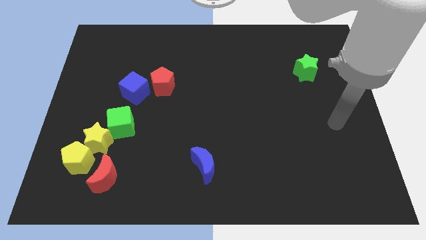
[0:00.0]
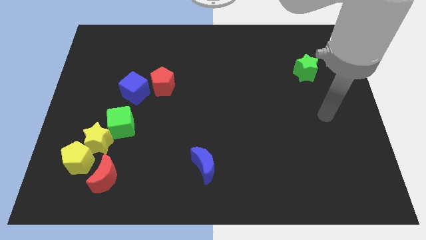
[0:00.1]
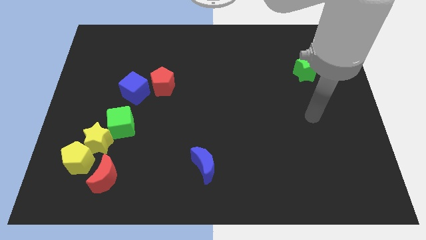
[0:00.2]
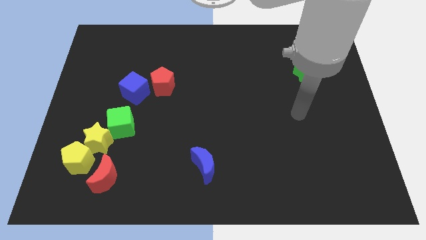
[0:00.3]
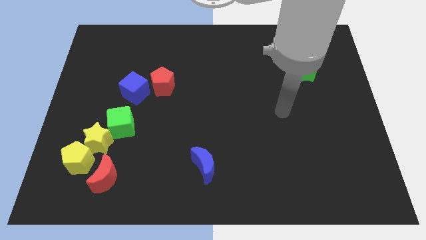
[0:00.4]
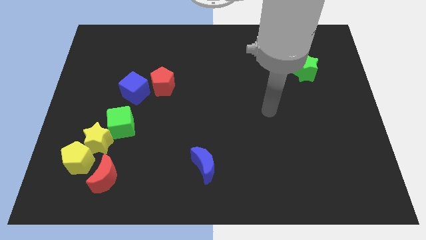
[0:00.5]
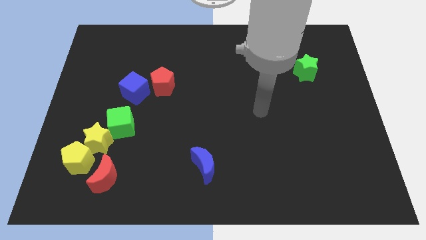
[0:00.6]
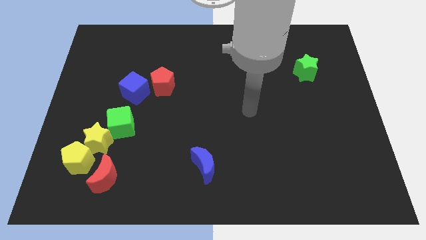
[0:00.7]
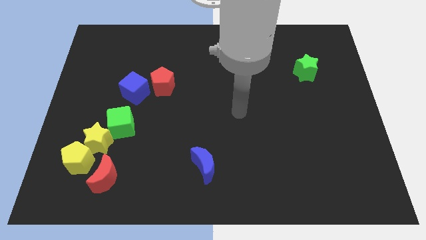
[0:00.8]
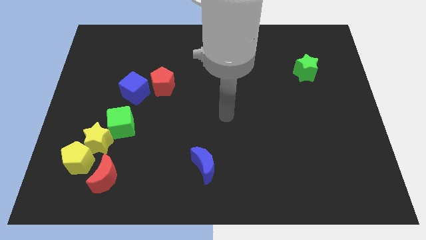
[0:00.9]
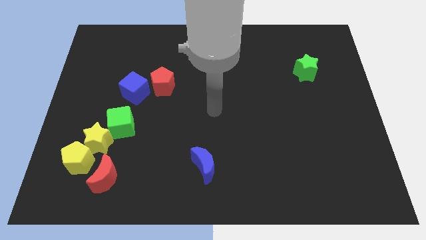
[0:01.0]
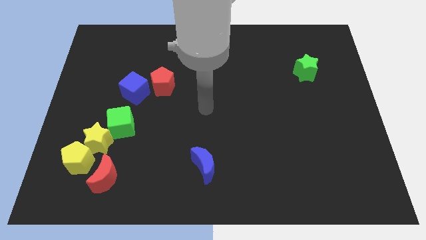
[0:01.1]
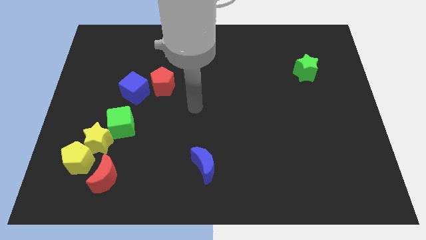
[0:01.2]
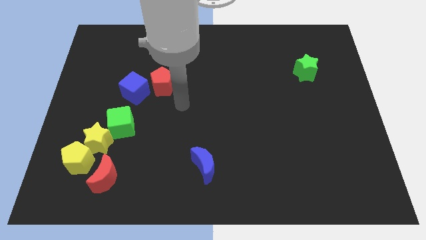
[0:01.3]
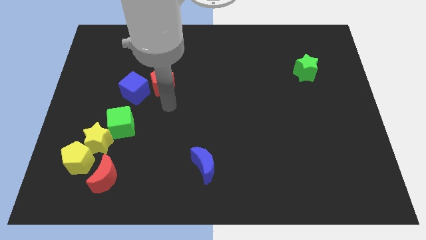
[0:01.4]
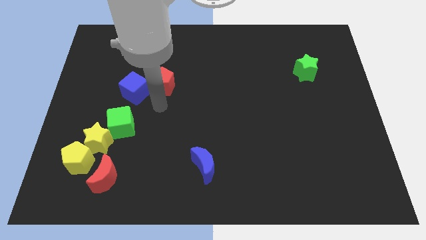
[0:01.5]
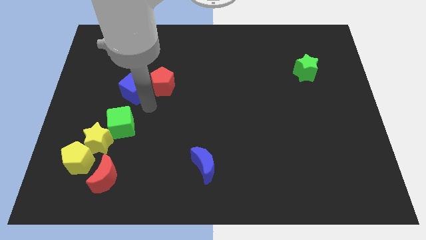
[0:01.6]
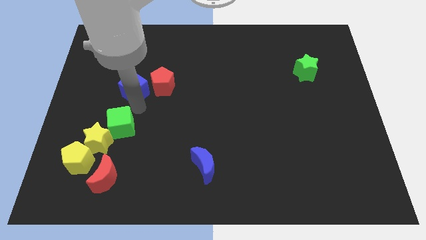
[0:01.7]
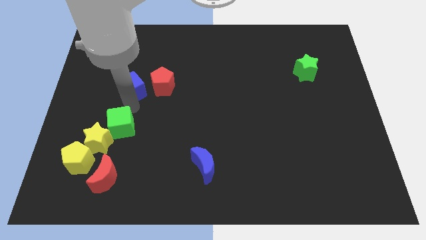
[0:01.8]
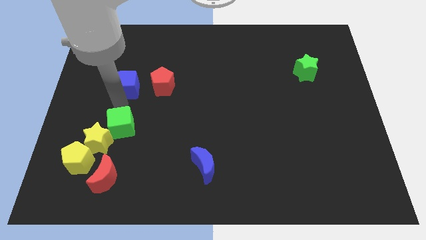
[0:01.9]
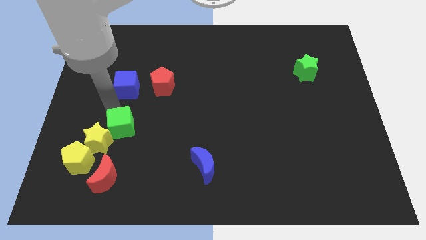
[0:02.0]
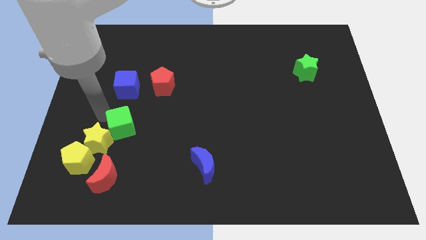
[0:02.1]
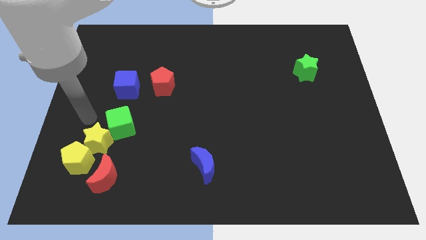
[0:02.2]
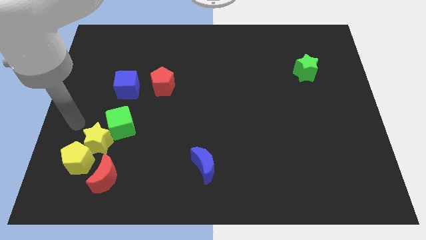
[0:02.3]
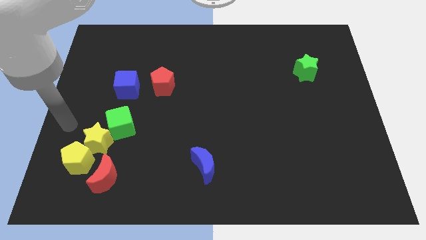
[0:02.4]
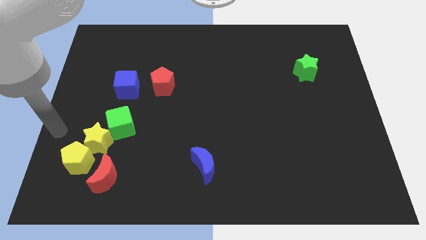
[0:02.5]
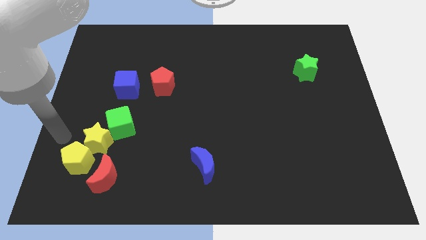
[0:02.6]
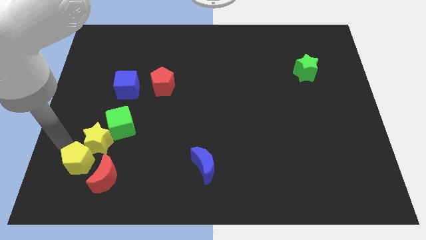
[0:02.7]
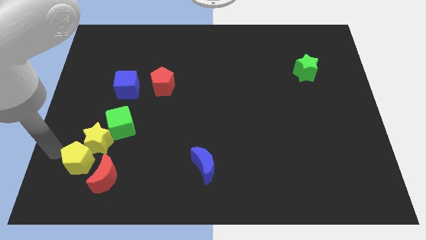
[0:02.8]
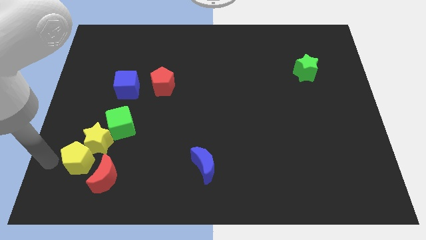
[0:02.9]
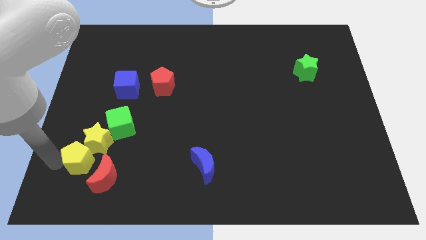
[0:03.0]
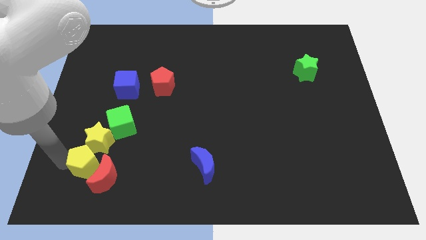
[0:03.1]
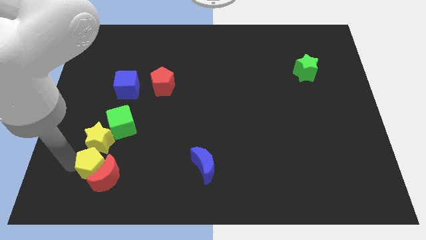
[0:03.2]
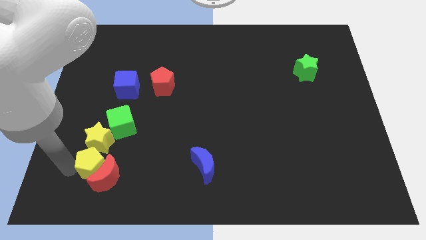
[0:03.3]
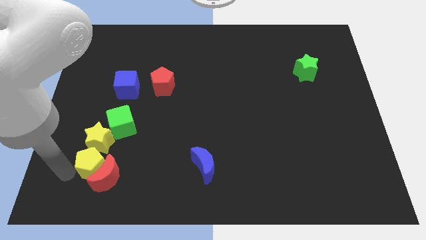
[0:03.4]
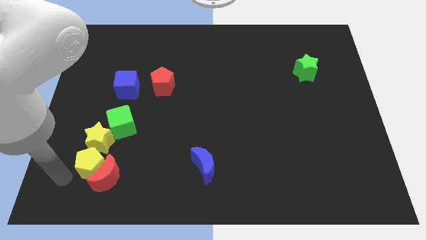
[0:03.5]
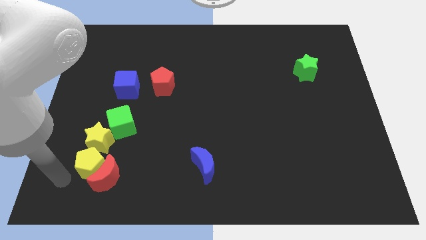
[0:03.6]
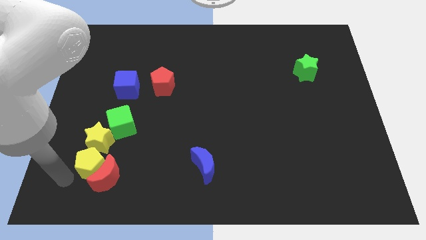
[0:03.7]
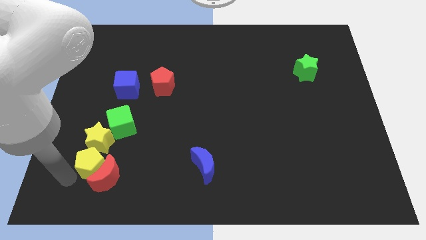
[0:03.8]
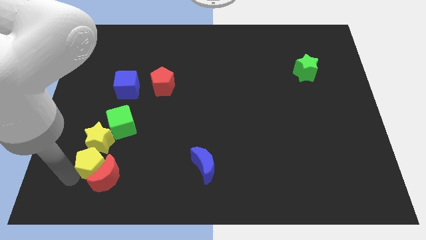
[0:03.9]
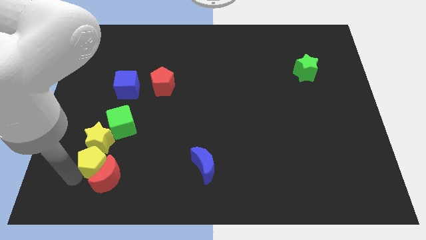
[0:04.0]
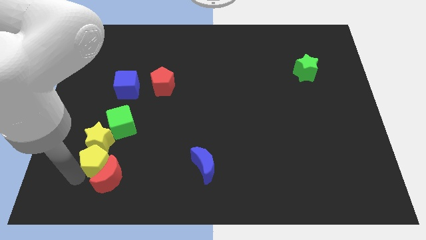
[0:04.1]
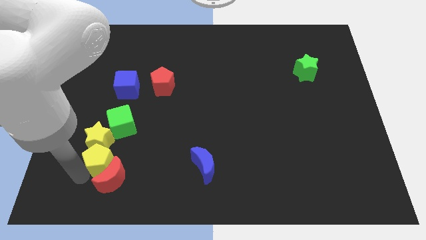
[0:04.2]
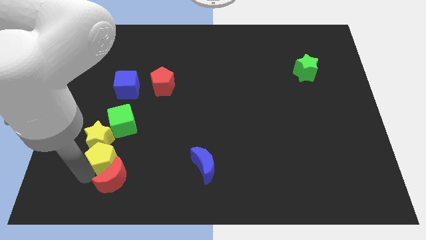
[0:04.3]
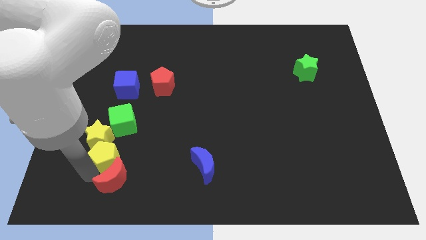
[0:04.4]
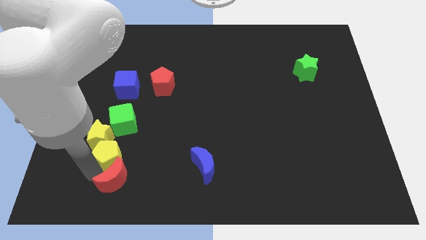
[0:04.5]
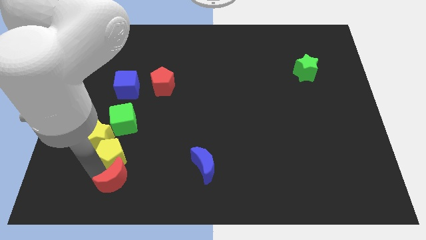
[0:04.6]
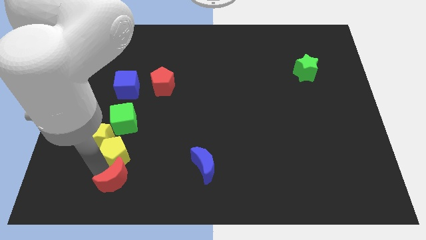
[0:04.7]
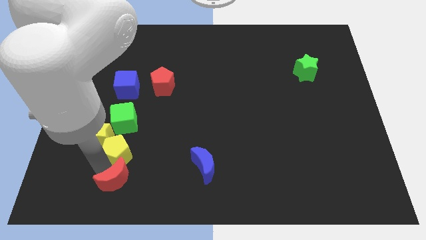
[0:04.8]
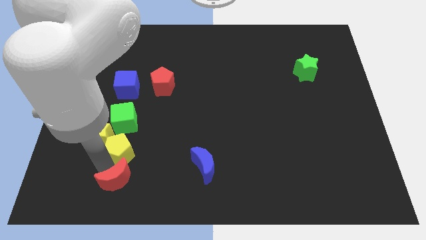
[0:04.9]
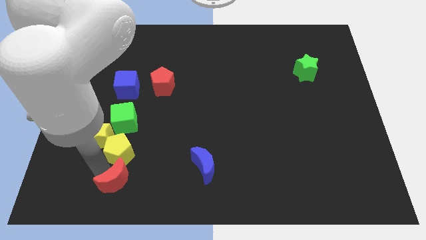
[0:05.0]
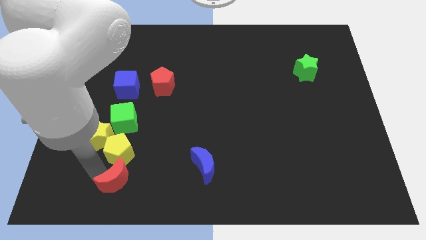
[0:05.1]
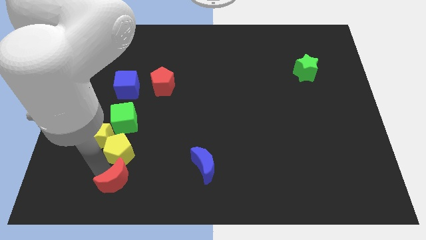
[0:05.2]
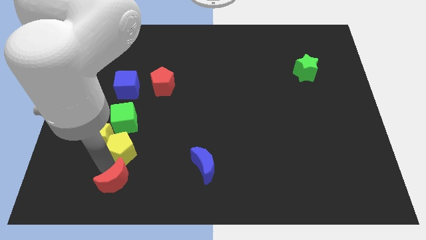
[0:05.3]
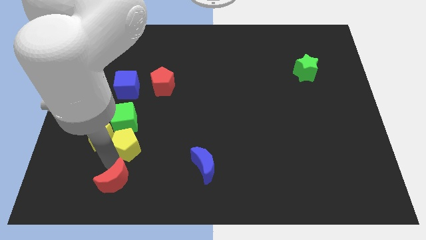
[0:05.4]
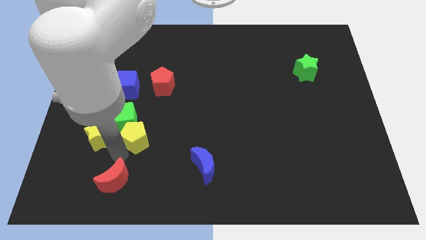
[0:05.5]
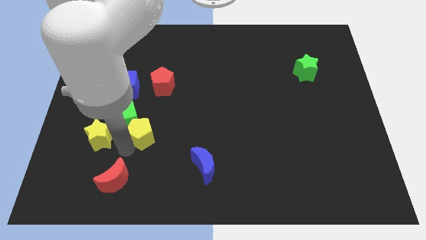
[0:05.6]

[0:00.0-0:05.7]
push the yellow pentagon to the bottom of the red pentagon

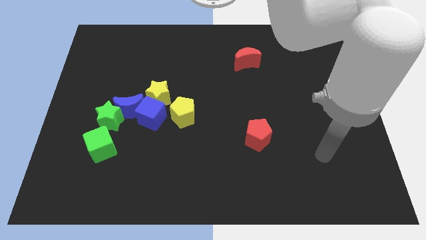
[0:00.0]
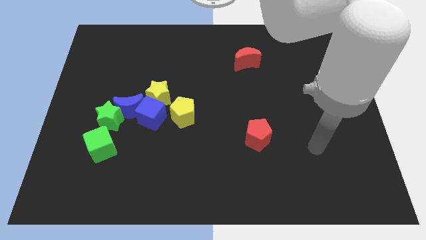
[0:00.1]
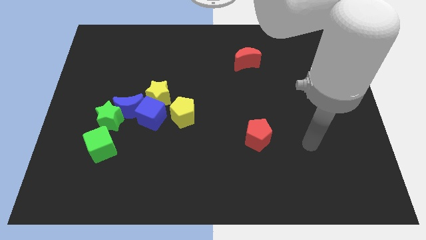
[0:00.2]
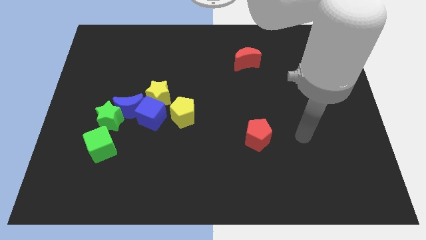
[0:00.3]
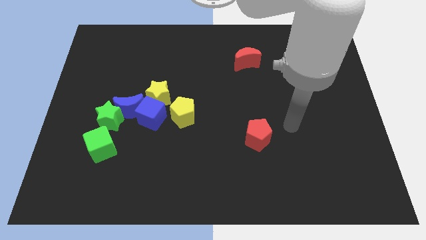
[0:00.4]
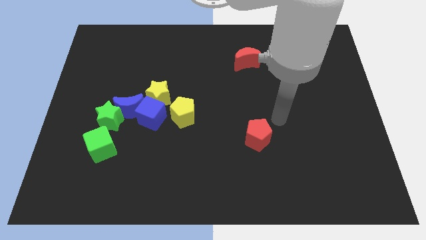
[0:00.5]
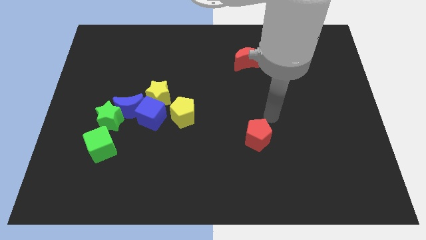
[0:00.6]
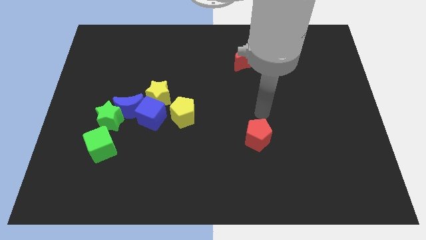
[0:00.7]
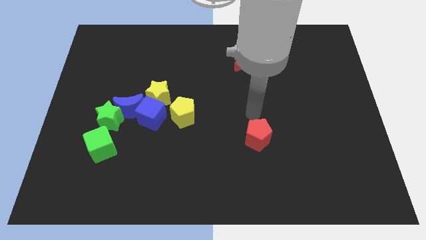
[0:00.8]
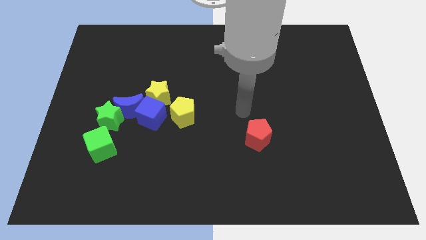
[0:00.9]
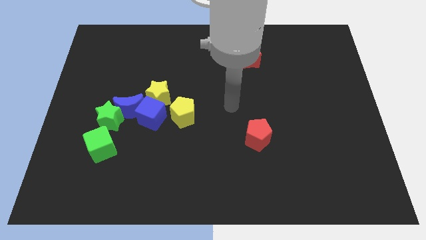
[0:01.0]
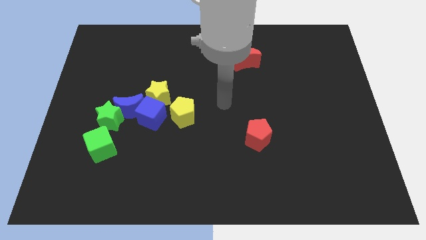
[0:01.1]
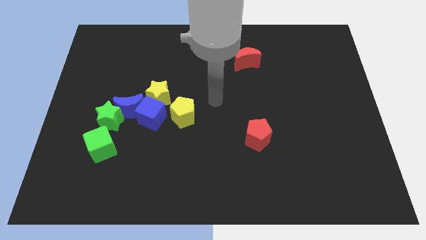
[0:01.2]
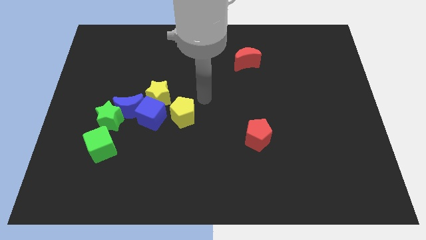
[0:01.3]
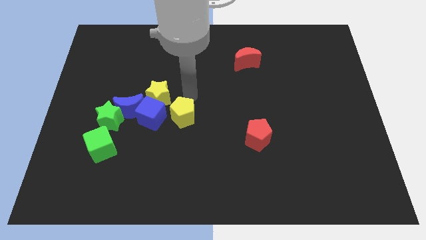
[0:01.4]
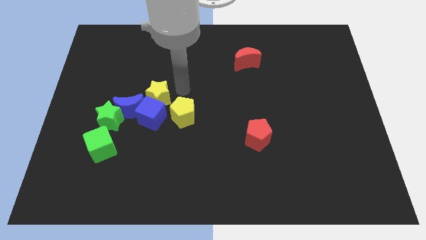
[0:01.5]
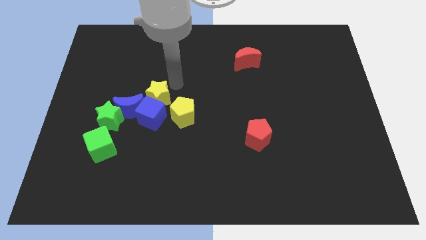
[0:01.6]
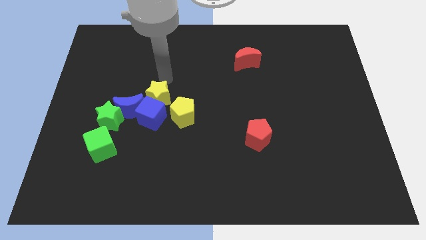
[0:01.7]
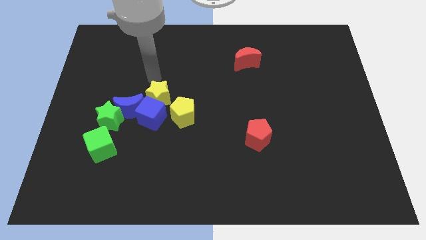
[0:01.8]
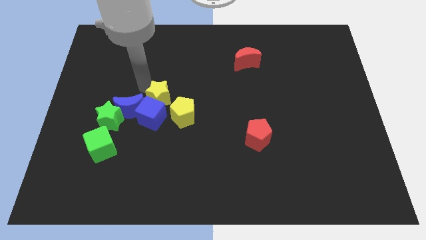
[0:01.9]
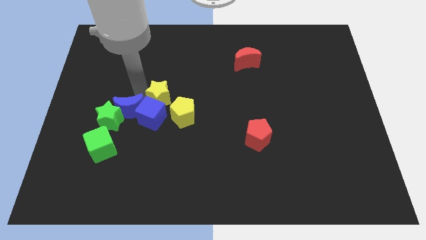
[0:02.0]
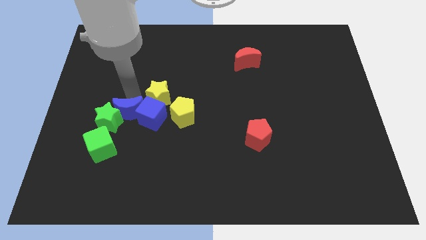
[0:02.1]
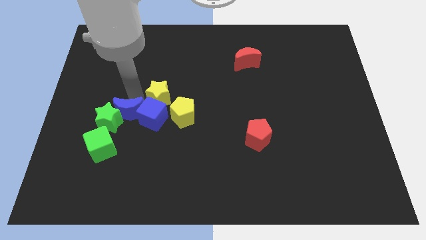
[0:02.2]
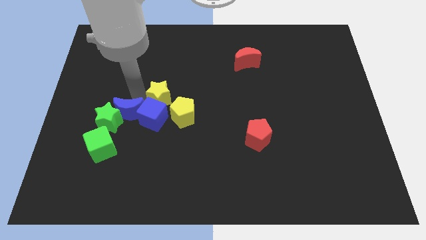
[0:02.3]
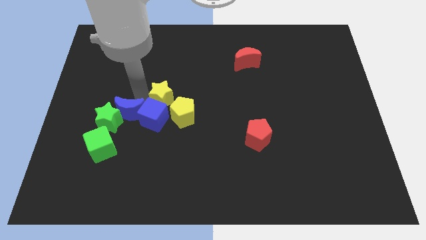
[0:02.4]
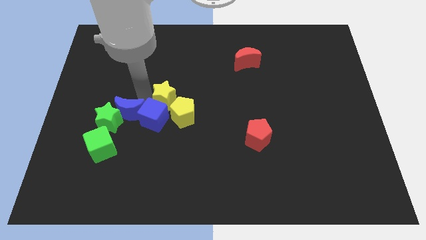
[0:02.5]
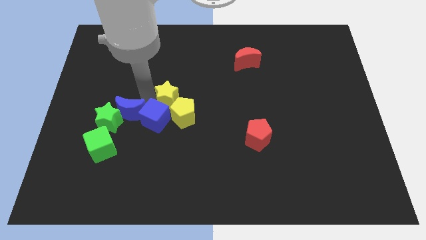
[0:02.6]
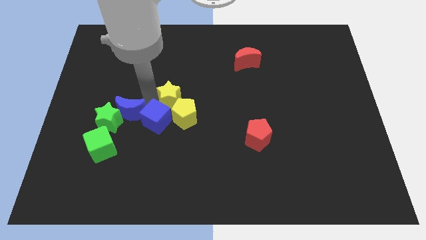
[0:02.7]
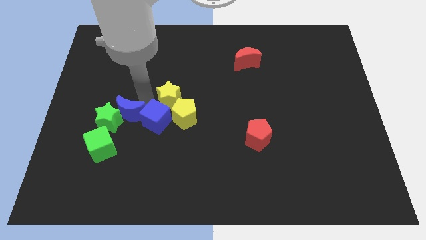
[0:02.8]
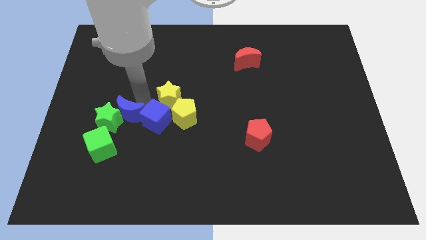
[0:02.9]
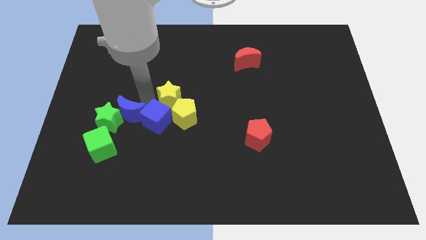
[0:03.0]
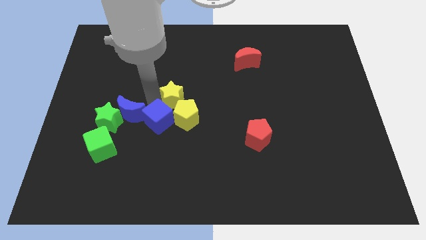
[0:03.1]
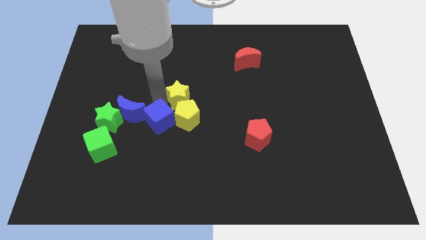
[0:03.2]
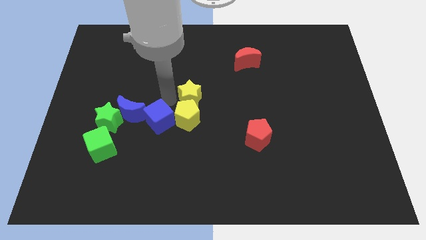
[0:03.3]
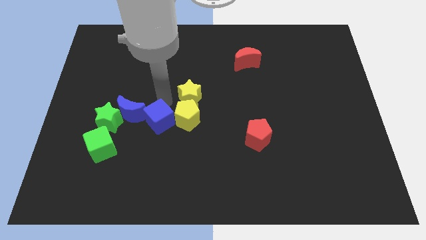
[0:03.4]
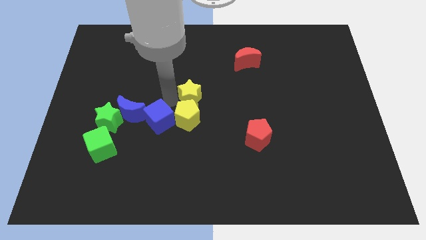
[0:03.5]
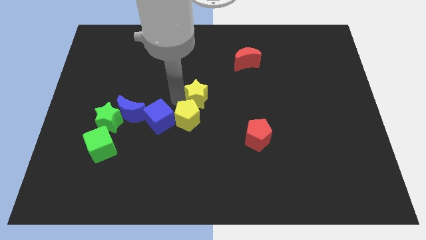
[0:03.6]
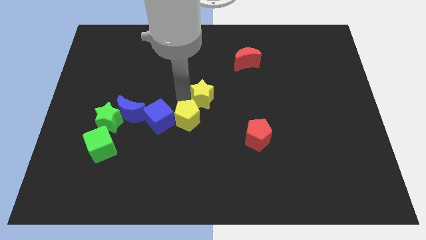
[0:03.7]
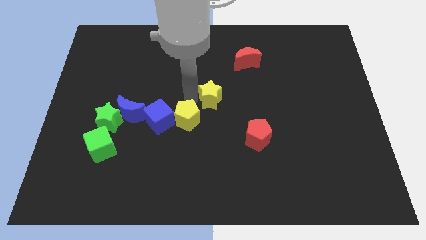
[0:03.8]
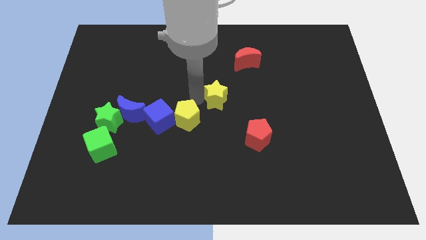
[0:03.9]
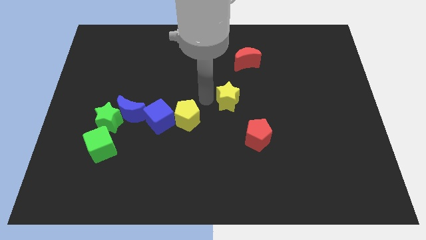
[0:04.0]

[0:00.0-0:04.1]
put the yellow star to the bottom side of the red moon
